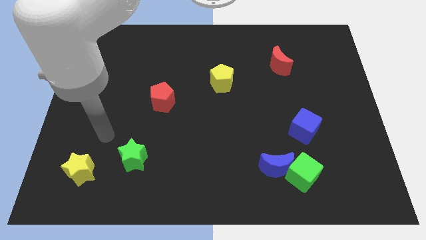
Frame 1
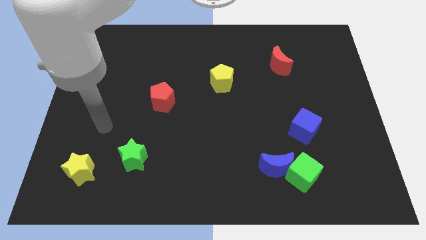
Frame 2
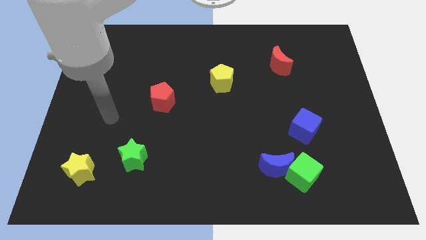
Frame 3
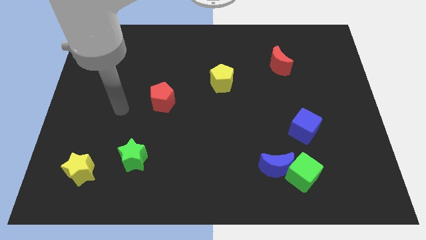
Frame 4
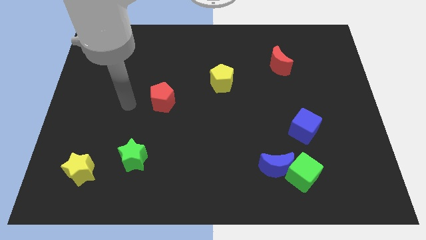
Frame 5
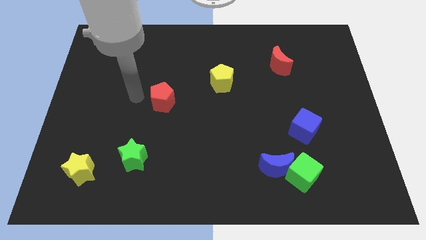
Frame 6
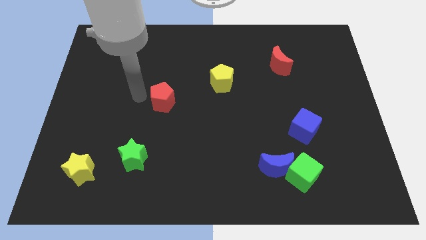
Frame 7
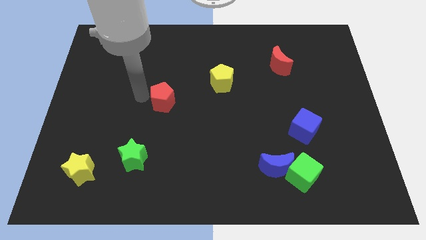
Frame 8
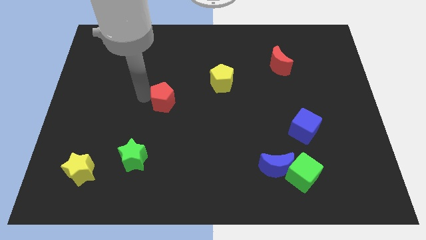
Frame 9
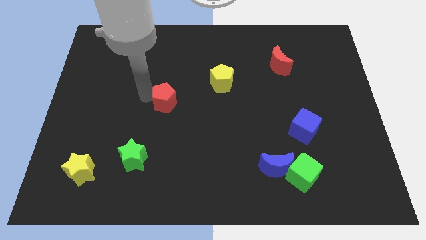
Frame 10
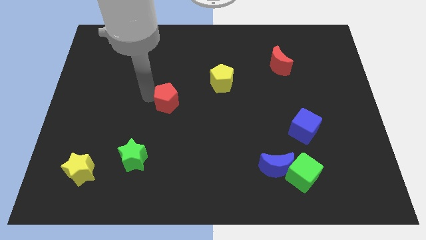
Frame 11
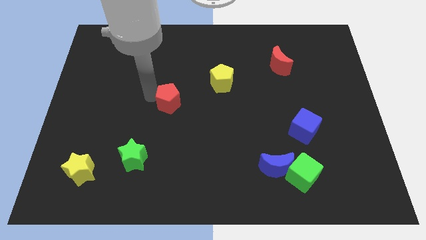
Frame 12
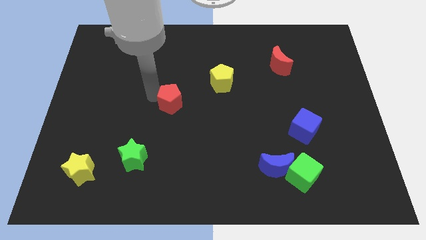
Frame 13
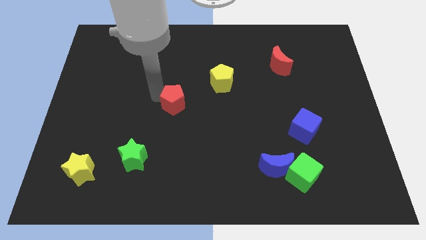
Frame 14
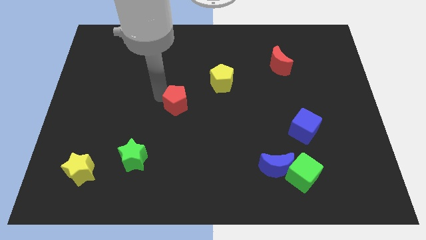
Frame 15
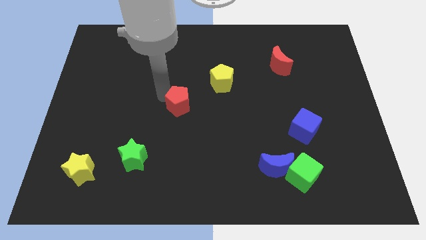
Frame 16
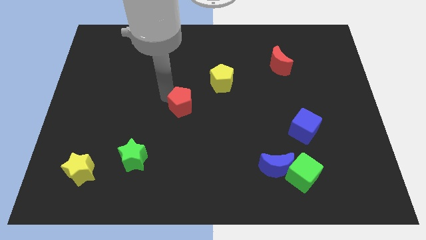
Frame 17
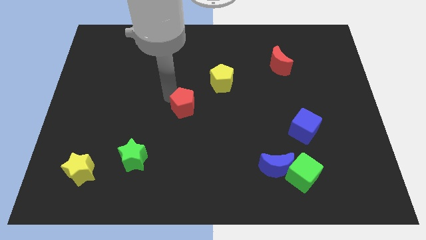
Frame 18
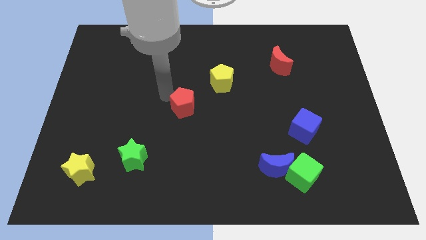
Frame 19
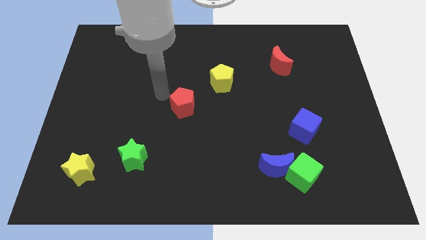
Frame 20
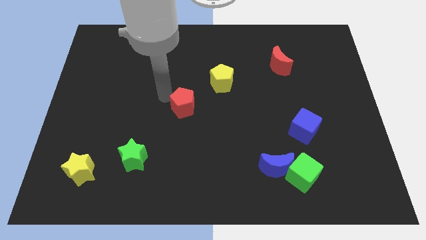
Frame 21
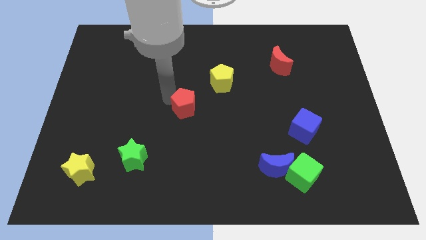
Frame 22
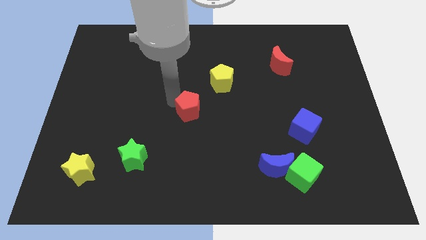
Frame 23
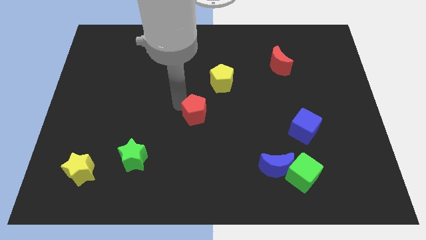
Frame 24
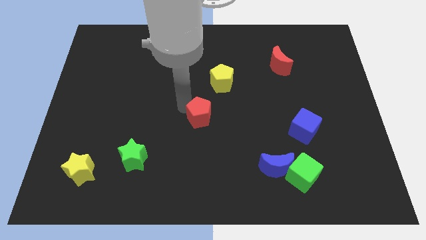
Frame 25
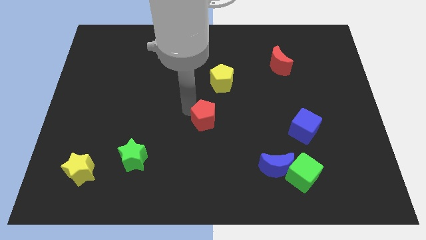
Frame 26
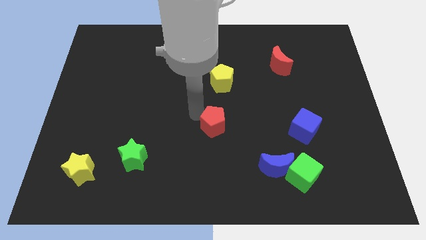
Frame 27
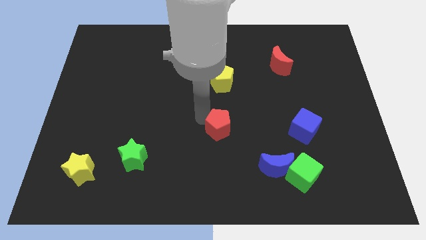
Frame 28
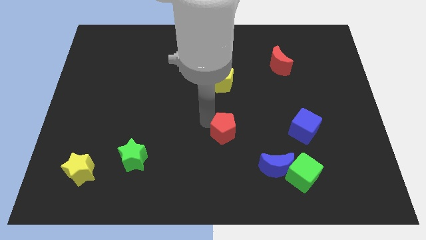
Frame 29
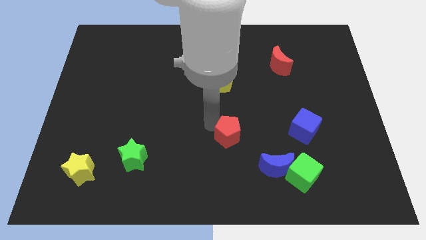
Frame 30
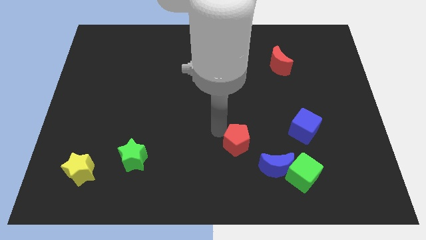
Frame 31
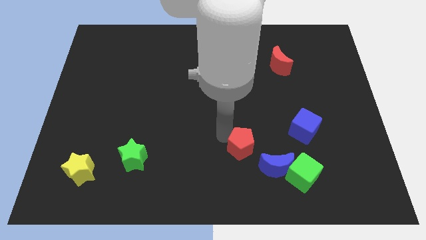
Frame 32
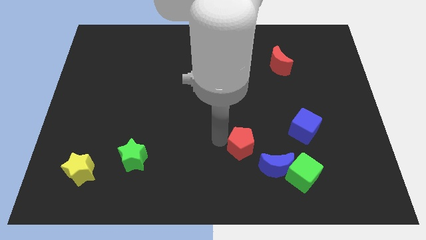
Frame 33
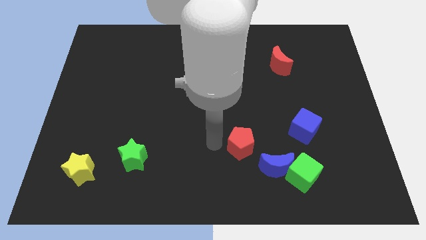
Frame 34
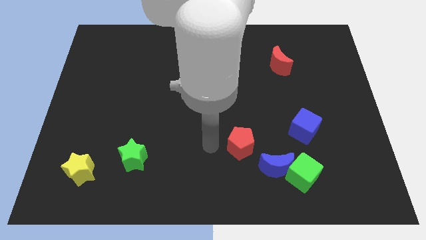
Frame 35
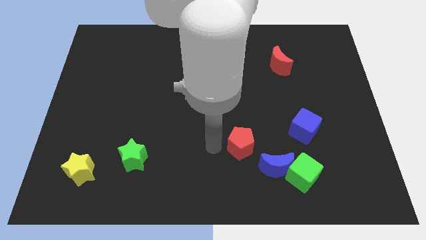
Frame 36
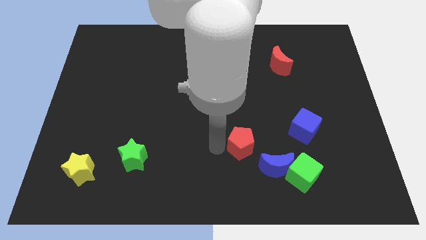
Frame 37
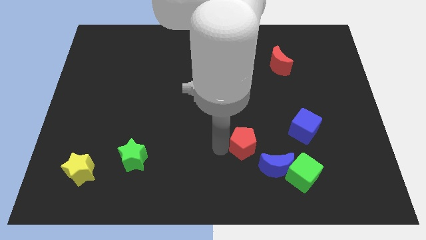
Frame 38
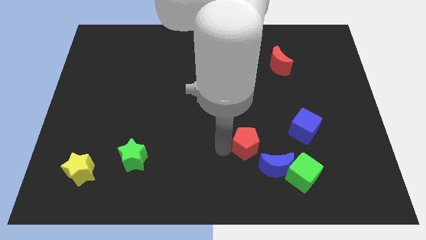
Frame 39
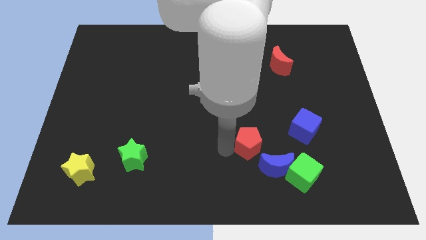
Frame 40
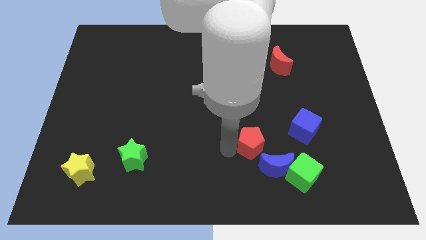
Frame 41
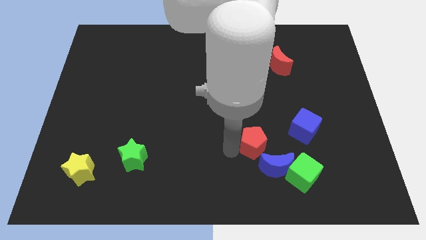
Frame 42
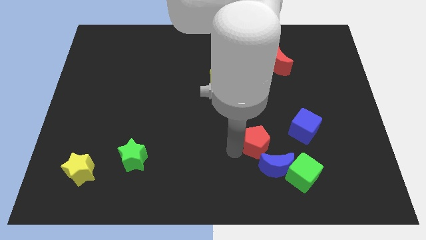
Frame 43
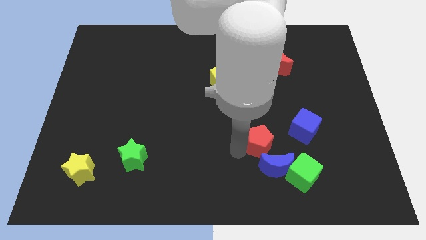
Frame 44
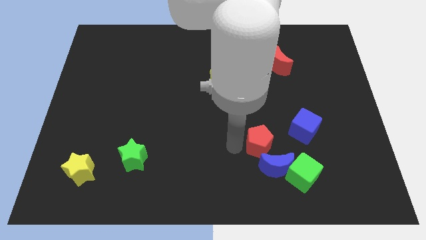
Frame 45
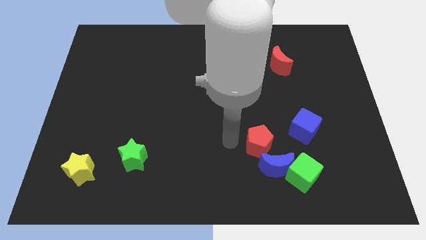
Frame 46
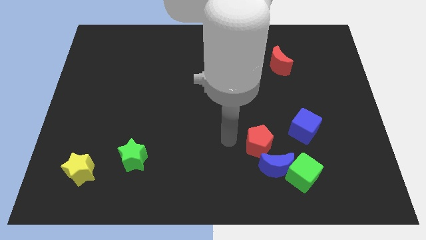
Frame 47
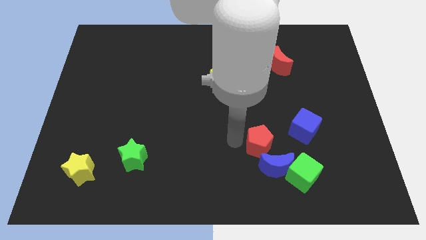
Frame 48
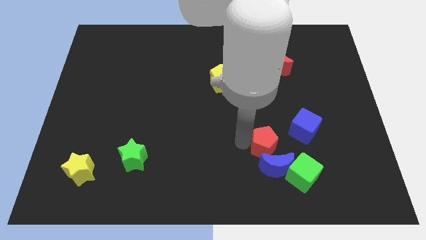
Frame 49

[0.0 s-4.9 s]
slide the red pentagon to the bottom left side of the blue cube

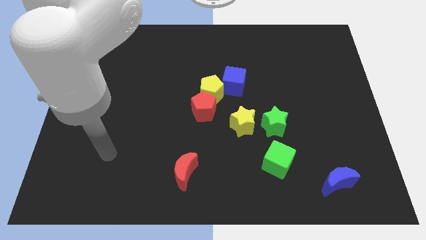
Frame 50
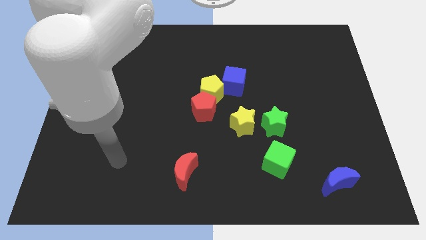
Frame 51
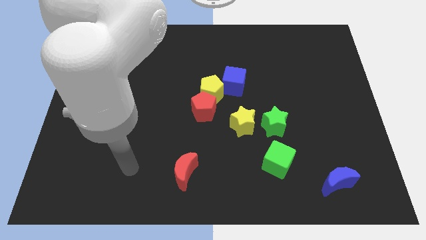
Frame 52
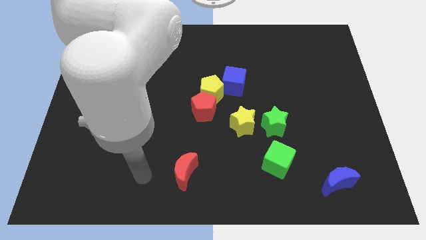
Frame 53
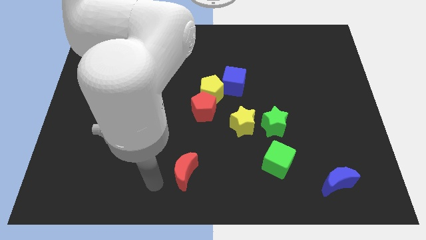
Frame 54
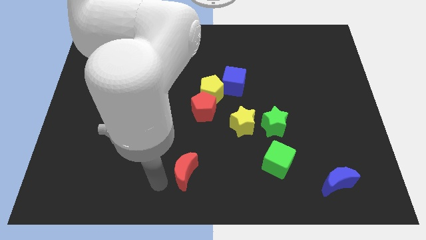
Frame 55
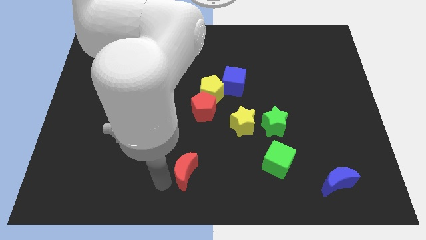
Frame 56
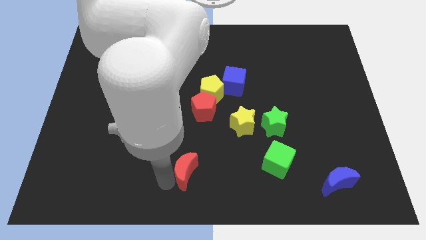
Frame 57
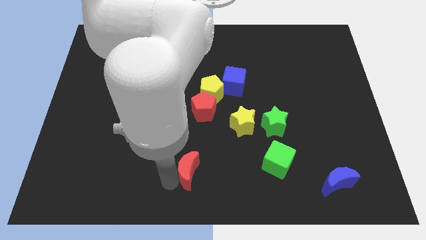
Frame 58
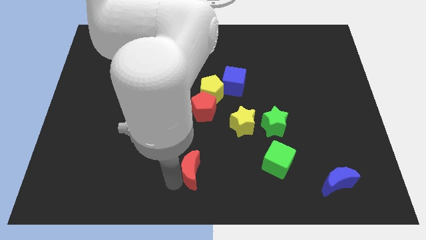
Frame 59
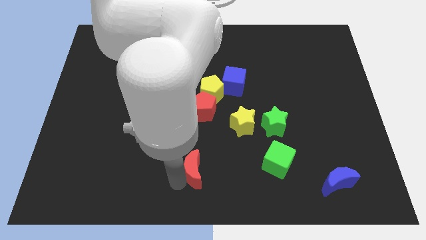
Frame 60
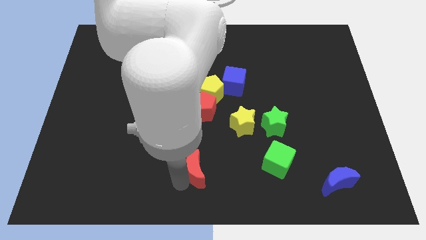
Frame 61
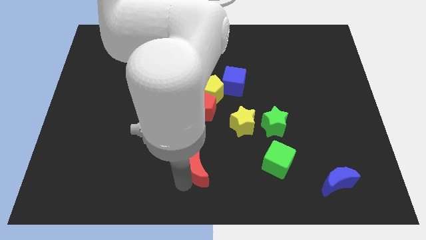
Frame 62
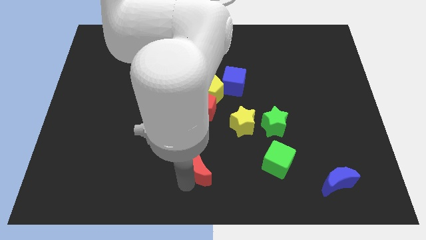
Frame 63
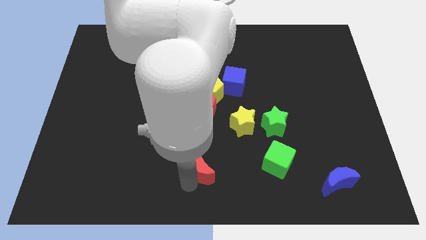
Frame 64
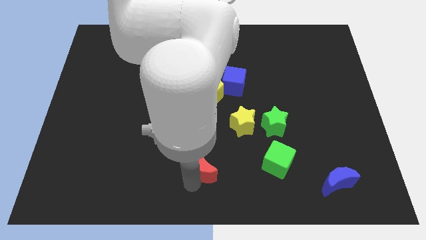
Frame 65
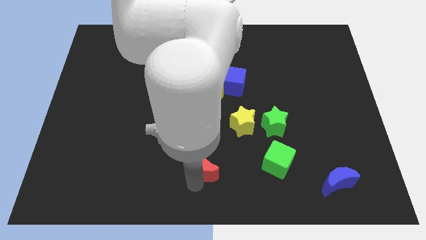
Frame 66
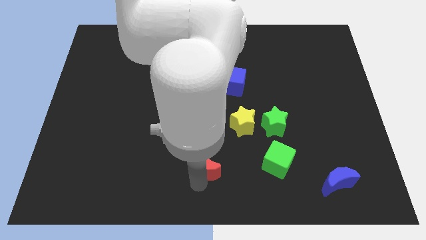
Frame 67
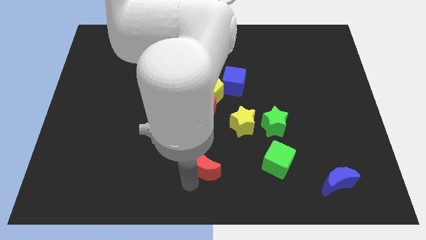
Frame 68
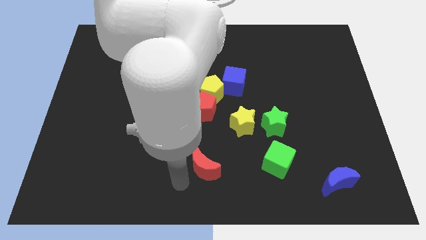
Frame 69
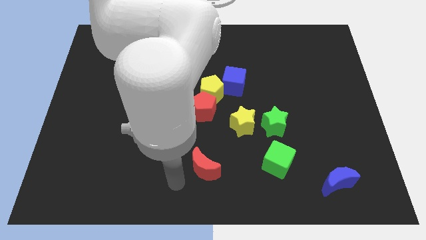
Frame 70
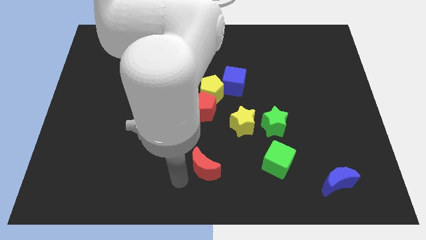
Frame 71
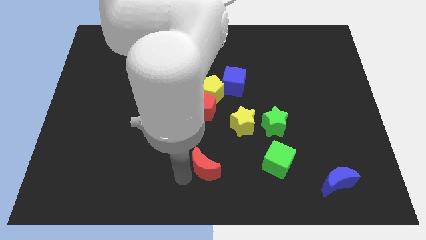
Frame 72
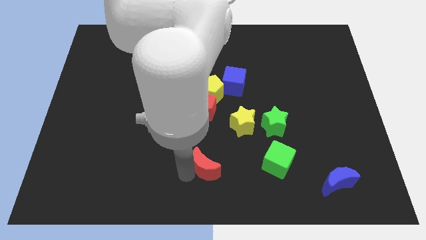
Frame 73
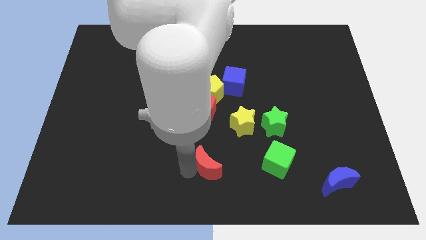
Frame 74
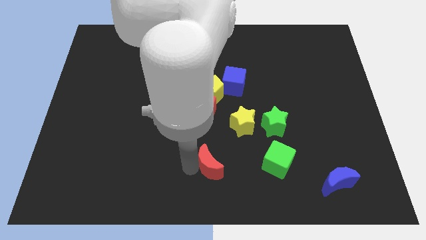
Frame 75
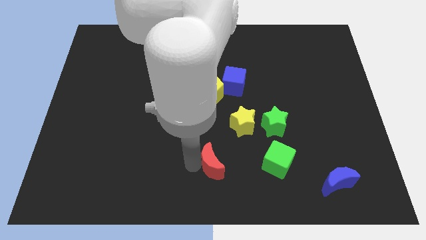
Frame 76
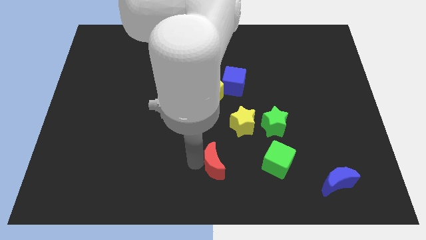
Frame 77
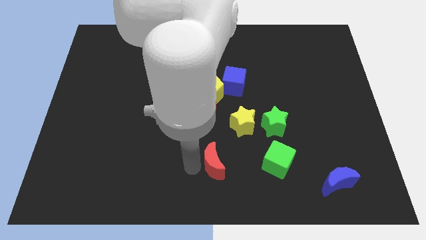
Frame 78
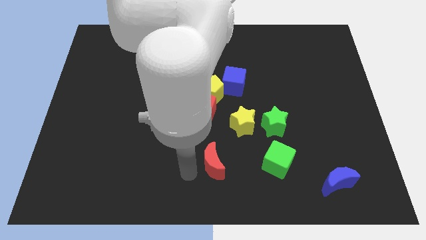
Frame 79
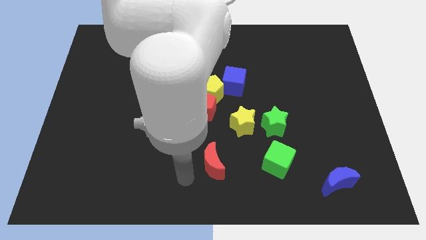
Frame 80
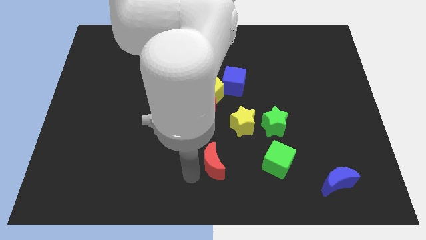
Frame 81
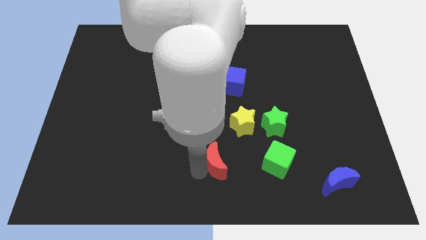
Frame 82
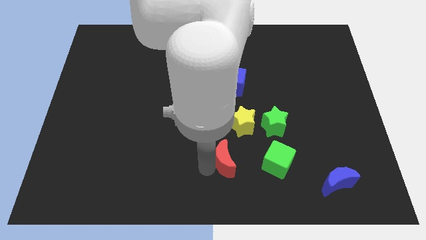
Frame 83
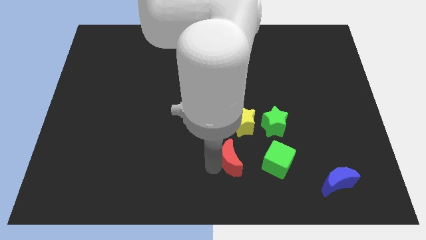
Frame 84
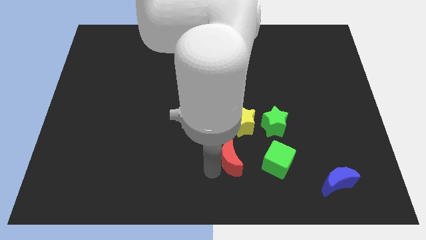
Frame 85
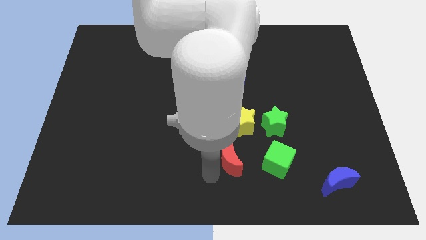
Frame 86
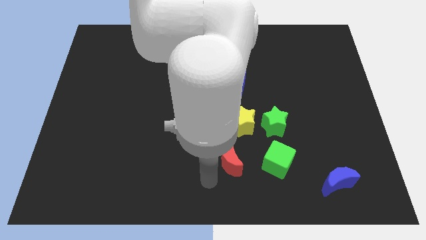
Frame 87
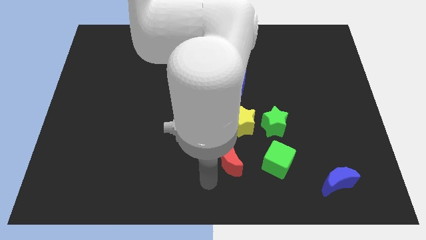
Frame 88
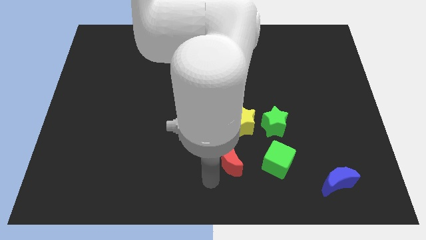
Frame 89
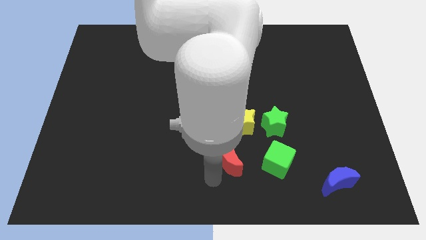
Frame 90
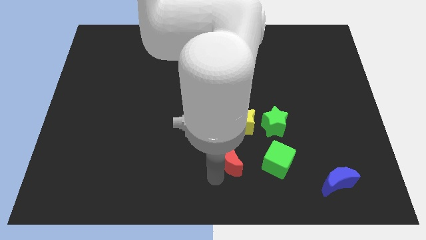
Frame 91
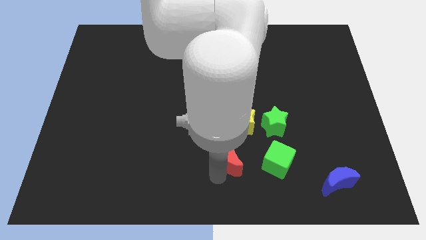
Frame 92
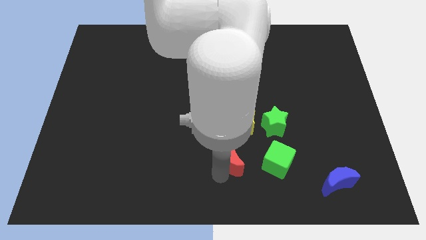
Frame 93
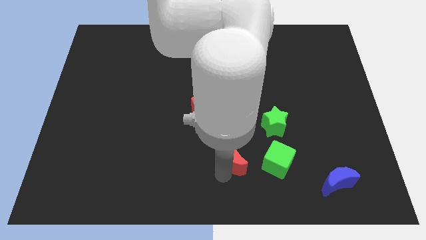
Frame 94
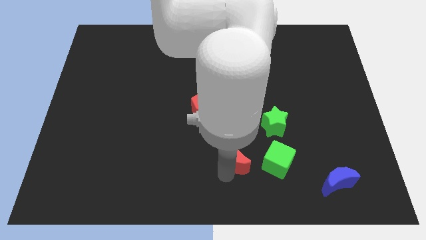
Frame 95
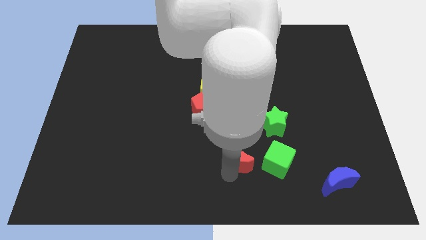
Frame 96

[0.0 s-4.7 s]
push the red moon diagonally down and to the left of the green star
